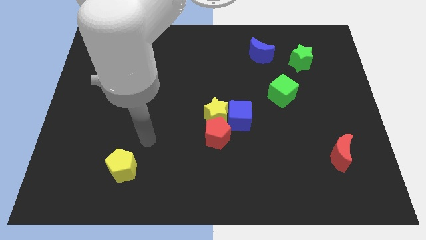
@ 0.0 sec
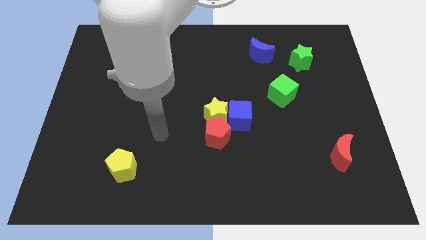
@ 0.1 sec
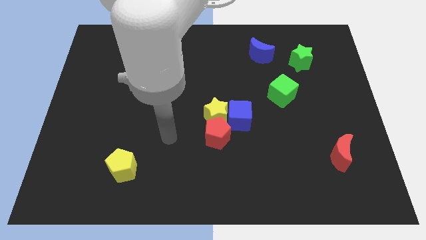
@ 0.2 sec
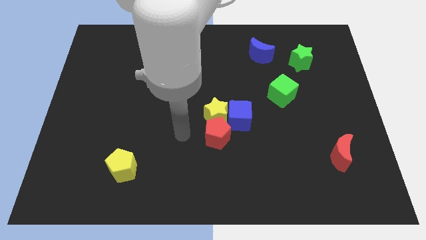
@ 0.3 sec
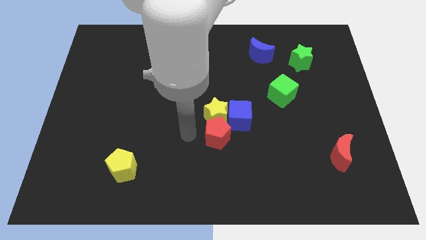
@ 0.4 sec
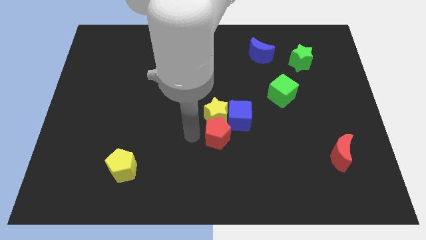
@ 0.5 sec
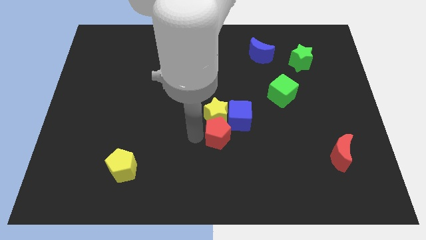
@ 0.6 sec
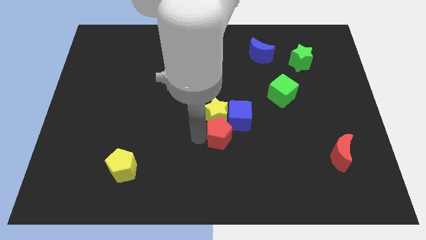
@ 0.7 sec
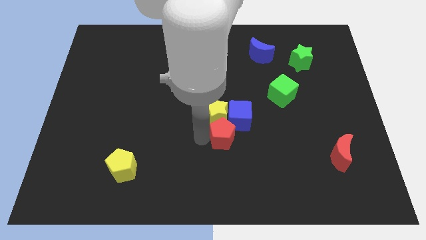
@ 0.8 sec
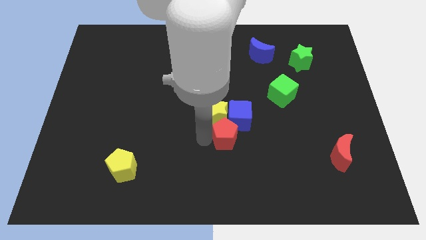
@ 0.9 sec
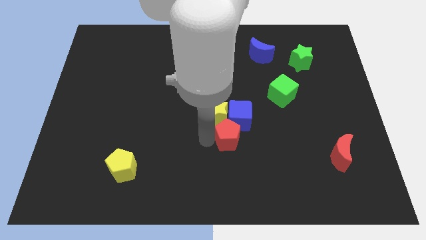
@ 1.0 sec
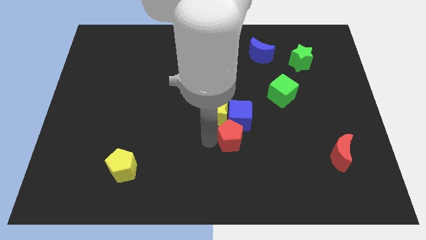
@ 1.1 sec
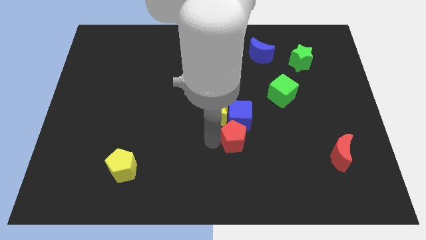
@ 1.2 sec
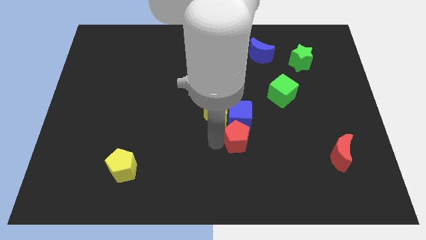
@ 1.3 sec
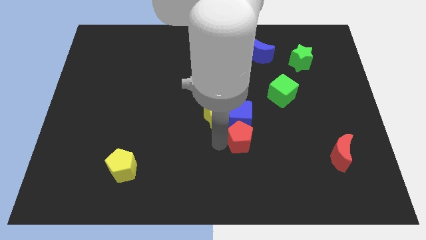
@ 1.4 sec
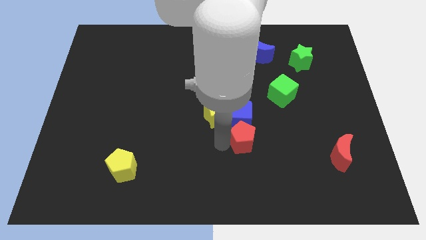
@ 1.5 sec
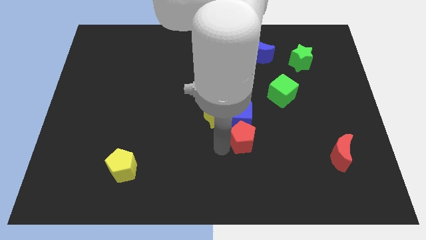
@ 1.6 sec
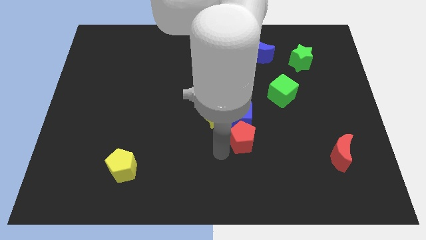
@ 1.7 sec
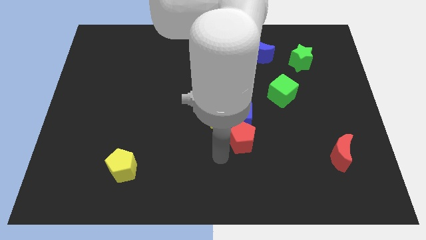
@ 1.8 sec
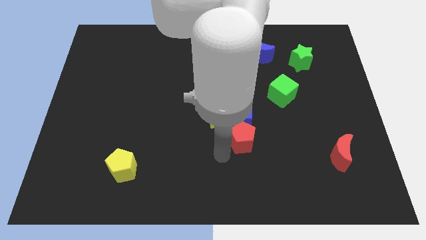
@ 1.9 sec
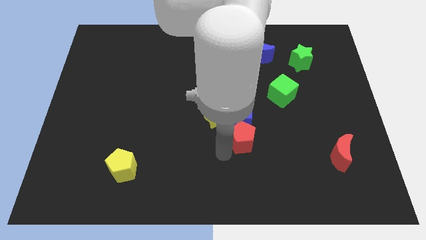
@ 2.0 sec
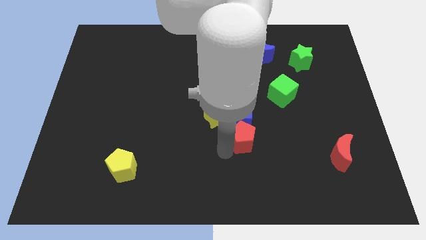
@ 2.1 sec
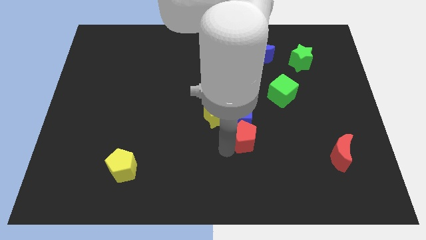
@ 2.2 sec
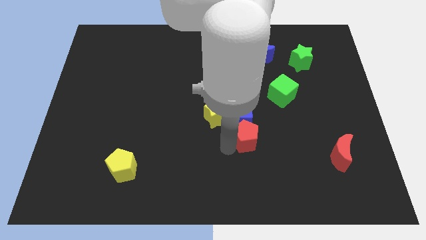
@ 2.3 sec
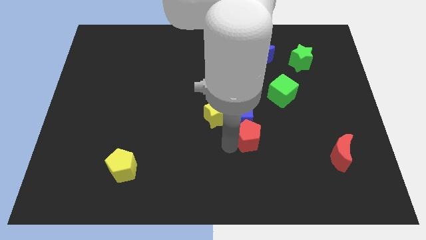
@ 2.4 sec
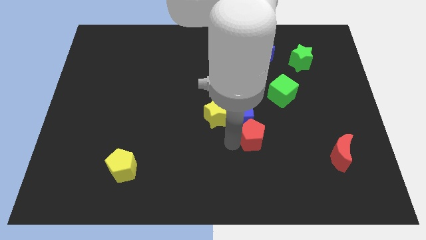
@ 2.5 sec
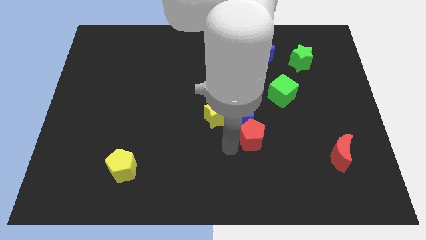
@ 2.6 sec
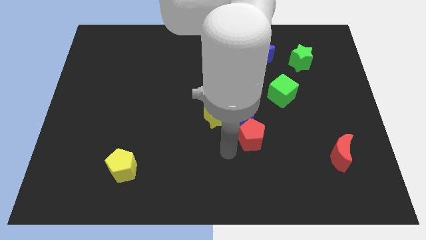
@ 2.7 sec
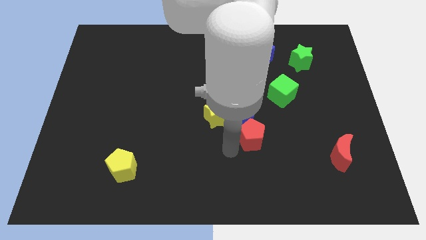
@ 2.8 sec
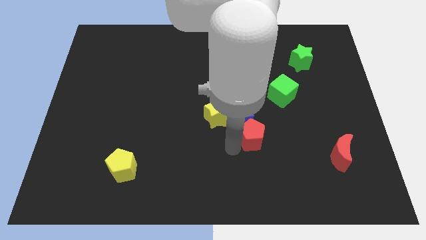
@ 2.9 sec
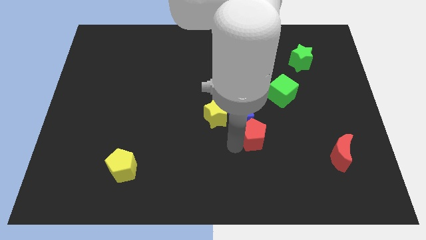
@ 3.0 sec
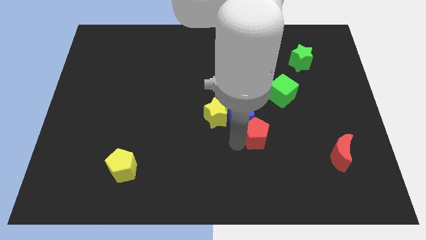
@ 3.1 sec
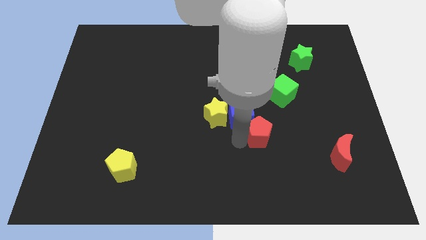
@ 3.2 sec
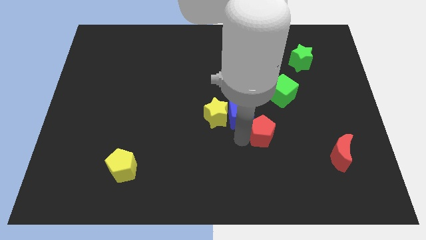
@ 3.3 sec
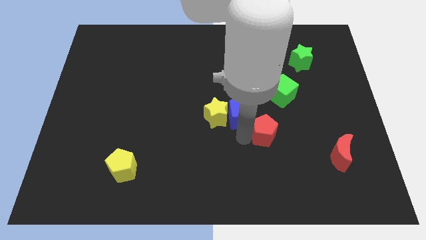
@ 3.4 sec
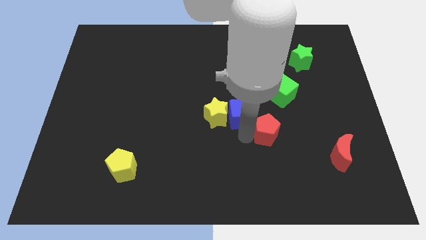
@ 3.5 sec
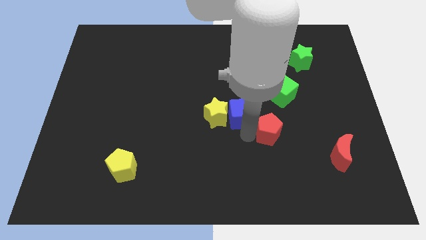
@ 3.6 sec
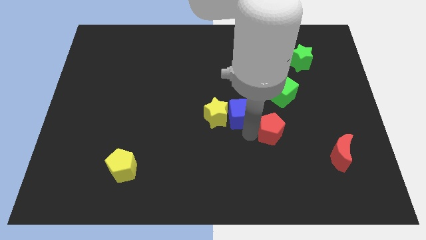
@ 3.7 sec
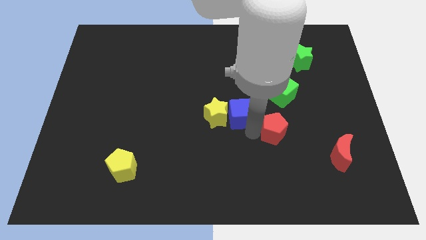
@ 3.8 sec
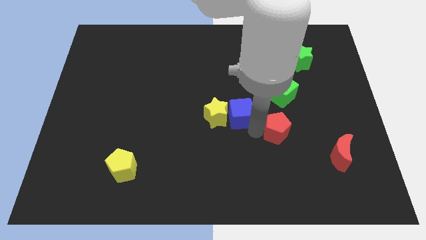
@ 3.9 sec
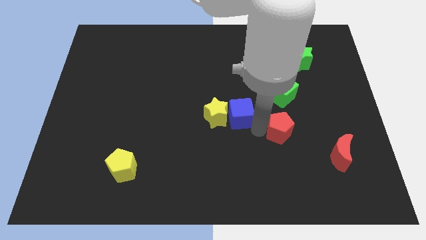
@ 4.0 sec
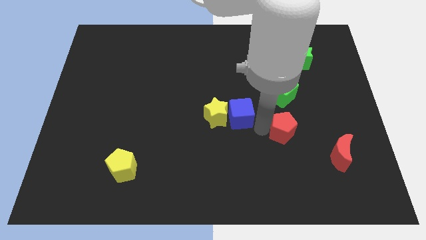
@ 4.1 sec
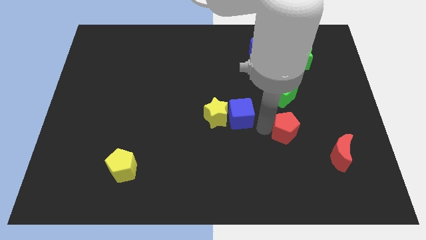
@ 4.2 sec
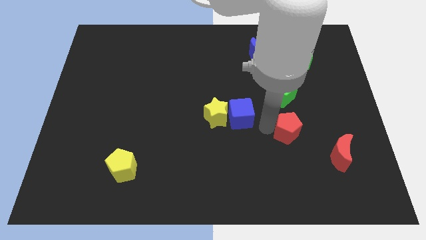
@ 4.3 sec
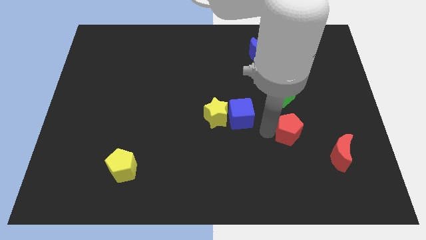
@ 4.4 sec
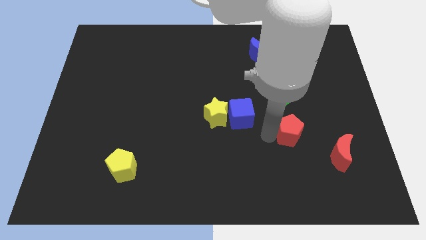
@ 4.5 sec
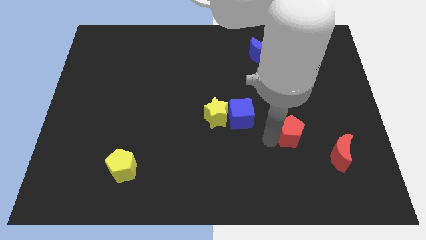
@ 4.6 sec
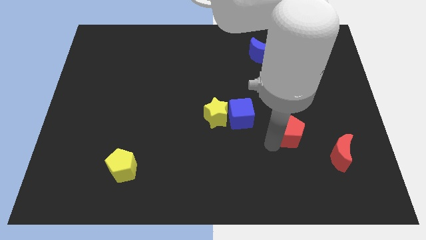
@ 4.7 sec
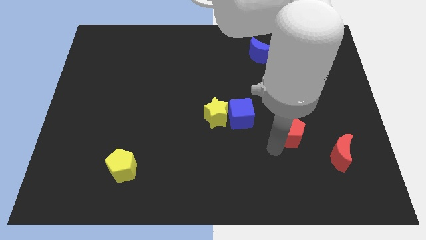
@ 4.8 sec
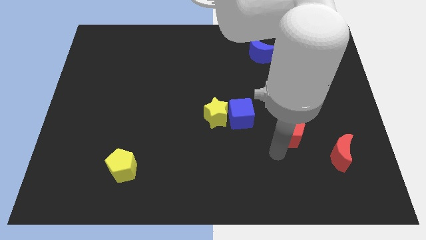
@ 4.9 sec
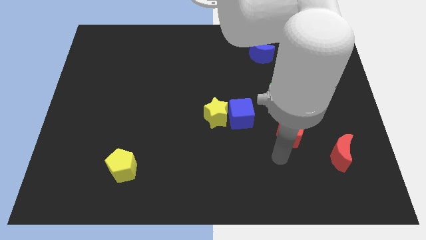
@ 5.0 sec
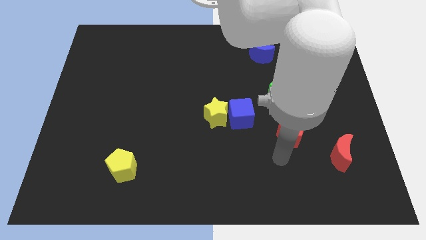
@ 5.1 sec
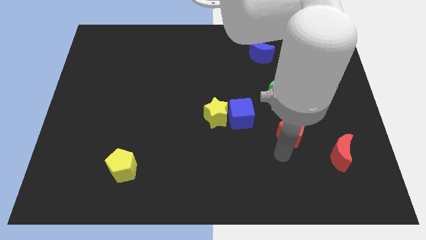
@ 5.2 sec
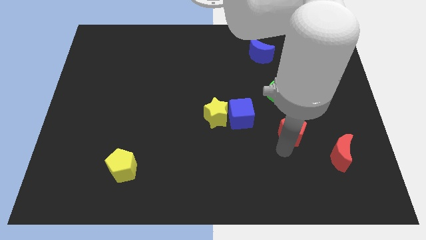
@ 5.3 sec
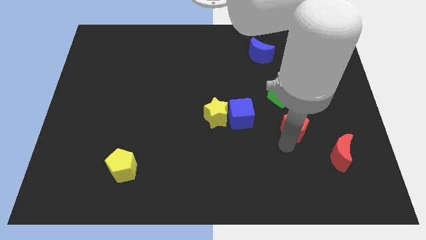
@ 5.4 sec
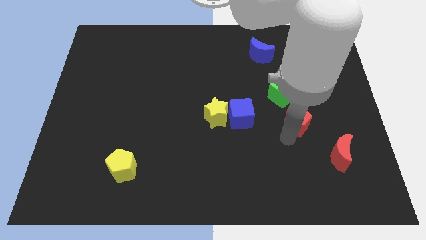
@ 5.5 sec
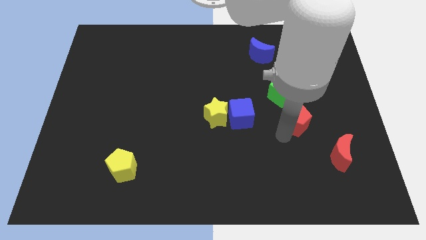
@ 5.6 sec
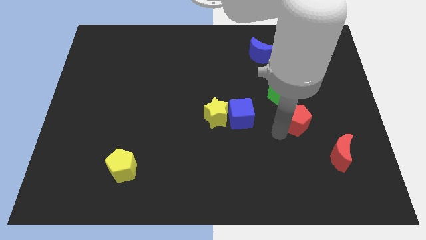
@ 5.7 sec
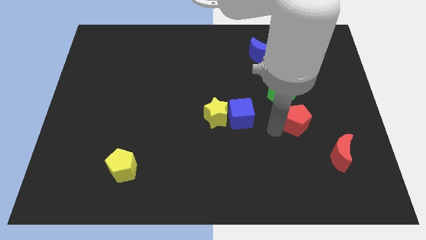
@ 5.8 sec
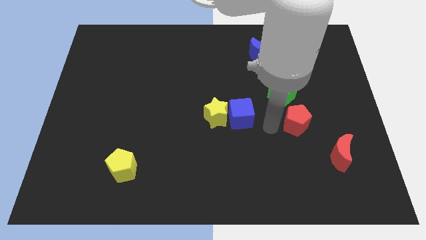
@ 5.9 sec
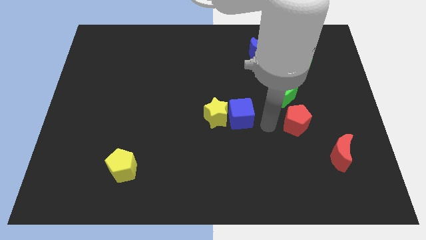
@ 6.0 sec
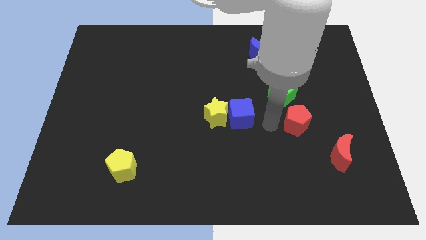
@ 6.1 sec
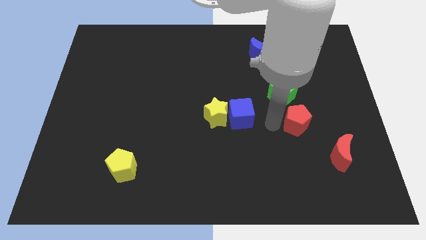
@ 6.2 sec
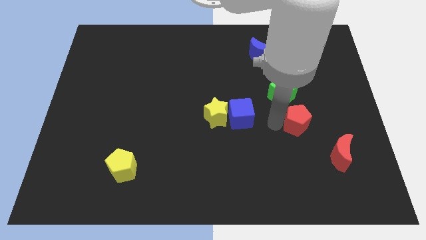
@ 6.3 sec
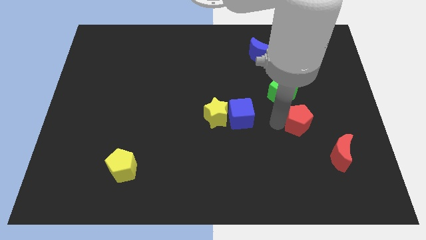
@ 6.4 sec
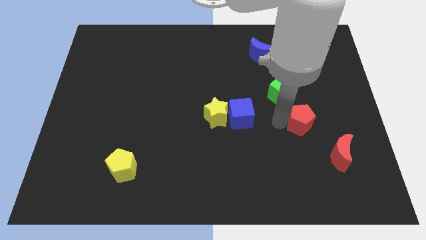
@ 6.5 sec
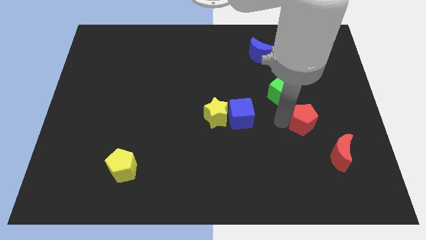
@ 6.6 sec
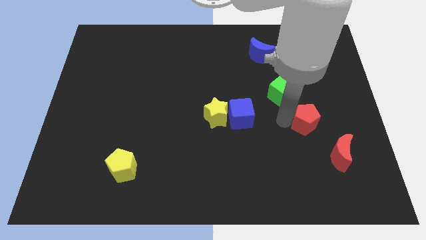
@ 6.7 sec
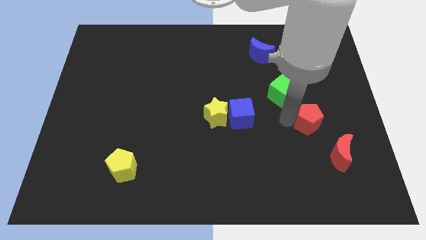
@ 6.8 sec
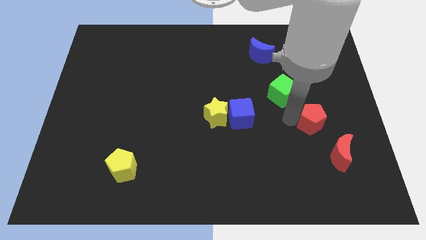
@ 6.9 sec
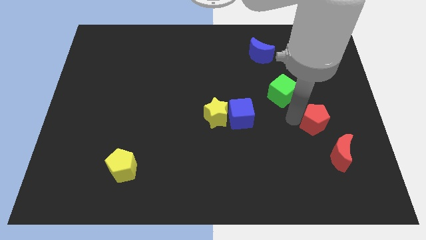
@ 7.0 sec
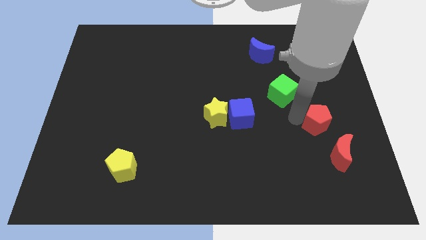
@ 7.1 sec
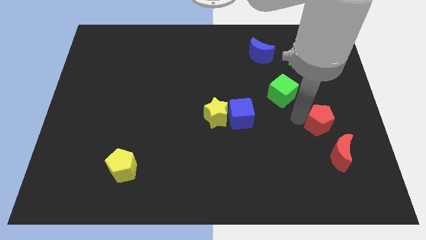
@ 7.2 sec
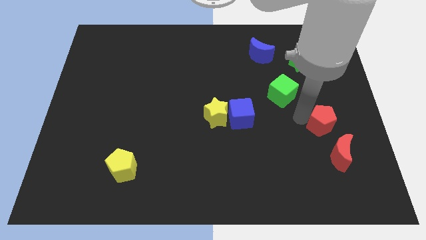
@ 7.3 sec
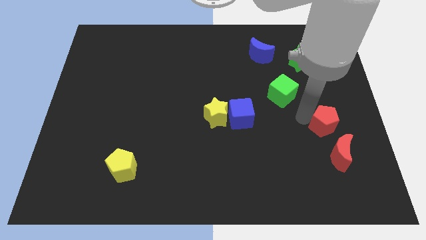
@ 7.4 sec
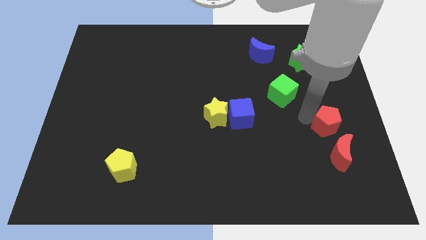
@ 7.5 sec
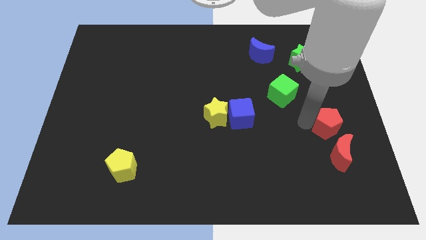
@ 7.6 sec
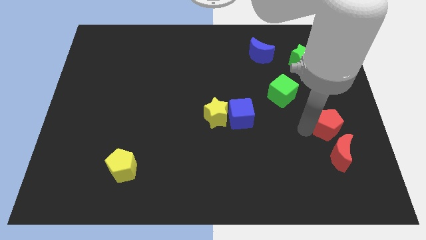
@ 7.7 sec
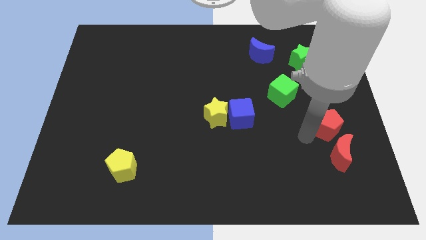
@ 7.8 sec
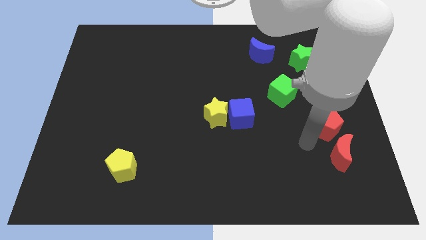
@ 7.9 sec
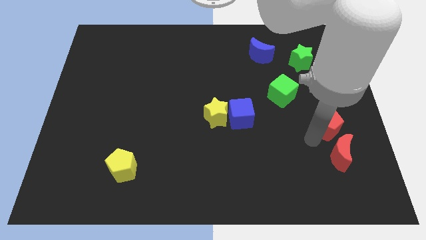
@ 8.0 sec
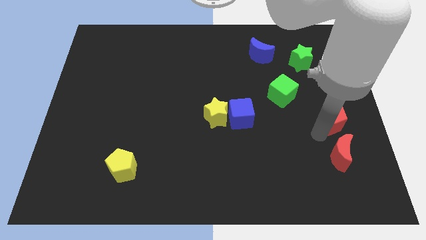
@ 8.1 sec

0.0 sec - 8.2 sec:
put the red pentagon to the right side of the board
